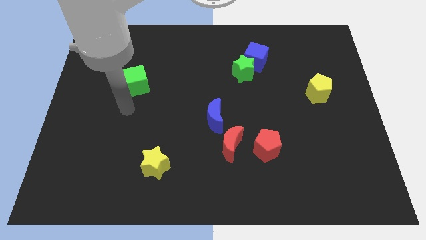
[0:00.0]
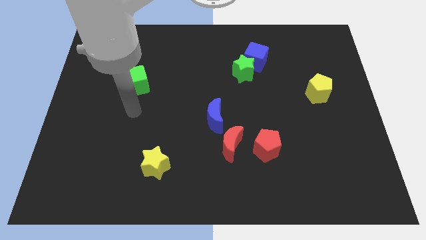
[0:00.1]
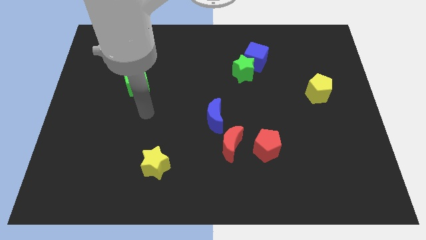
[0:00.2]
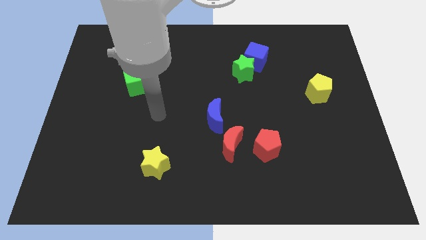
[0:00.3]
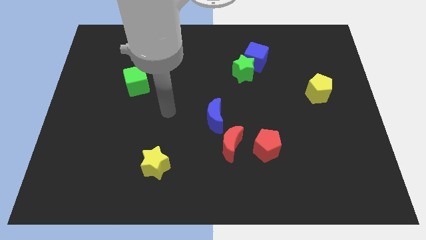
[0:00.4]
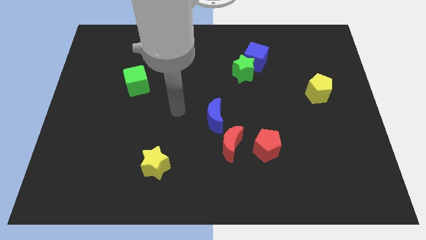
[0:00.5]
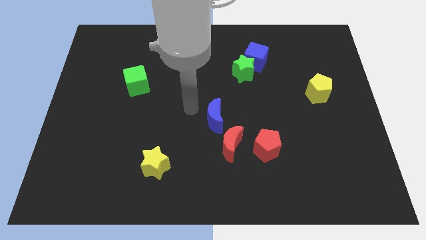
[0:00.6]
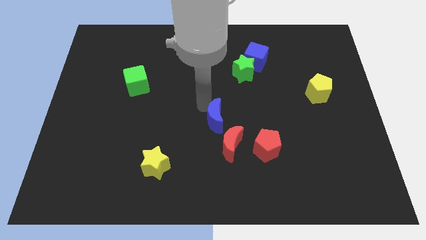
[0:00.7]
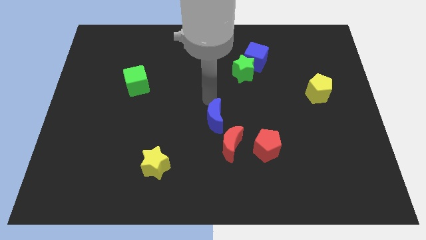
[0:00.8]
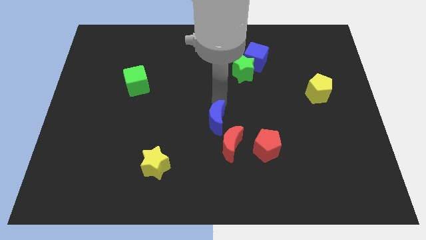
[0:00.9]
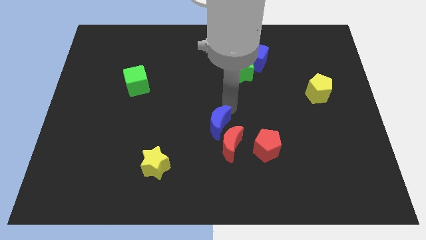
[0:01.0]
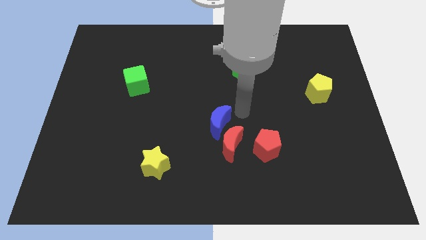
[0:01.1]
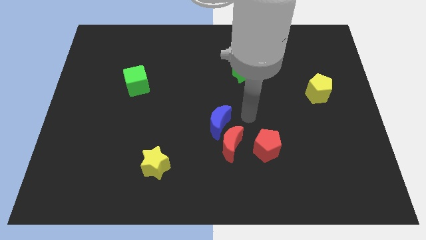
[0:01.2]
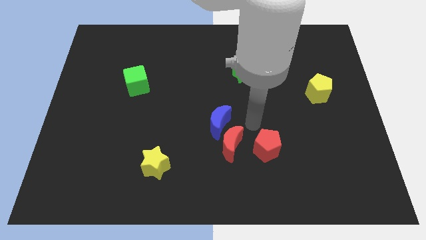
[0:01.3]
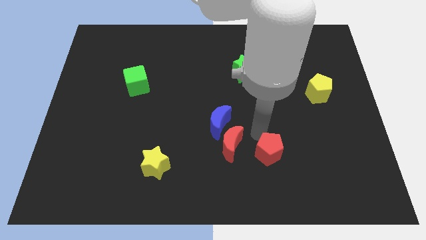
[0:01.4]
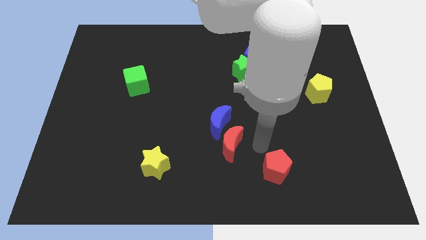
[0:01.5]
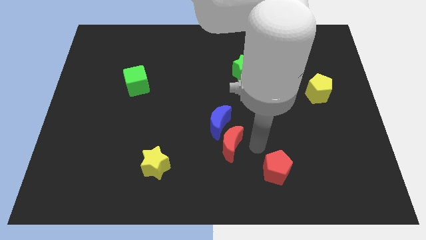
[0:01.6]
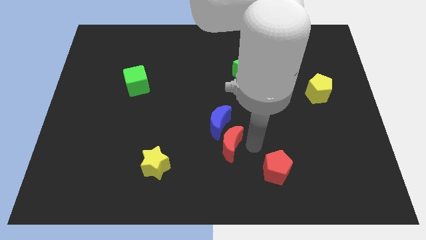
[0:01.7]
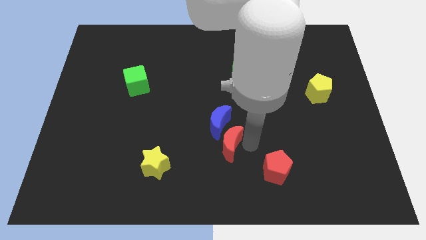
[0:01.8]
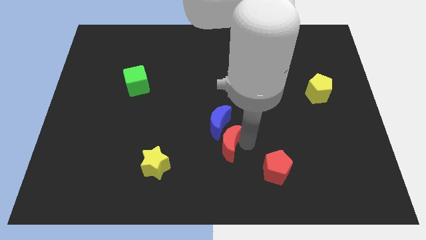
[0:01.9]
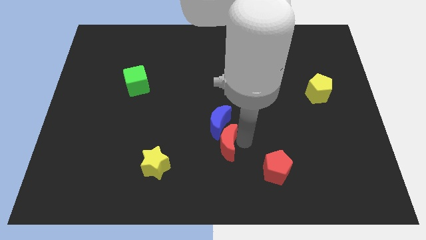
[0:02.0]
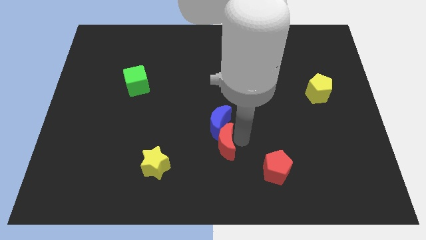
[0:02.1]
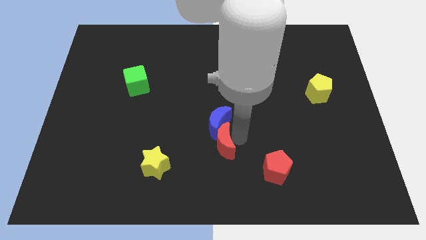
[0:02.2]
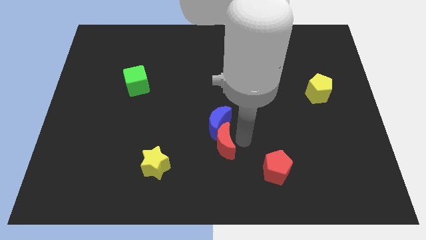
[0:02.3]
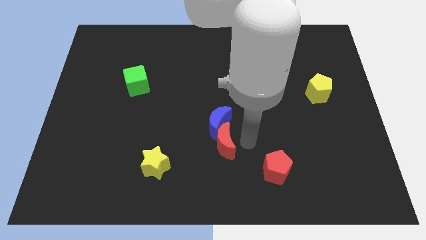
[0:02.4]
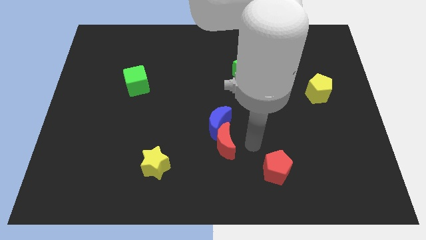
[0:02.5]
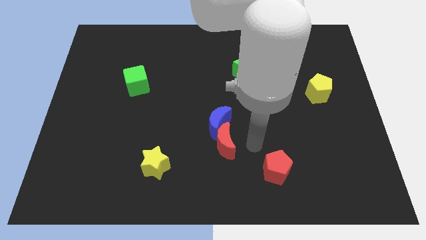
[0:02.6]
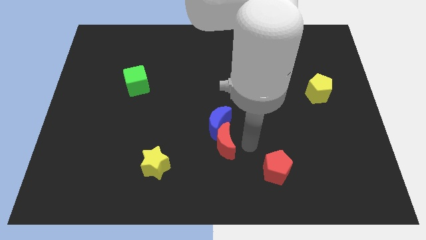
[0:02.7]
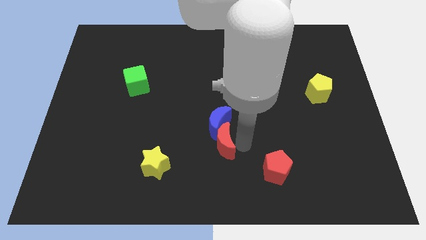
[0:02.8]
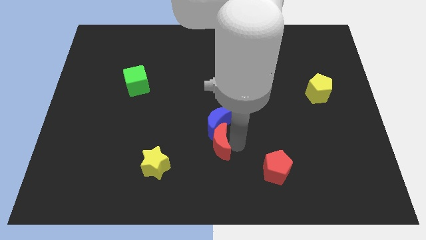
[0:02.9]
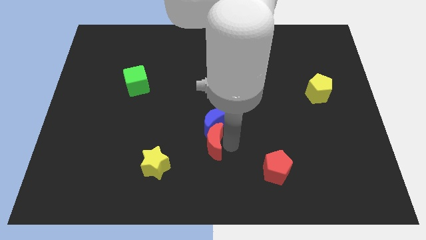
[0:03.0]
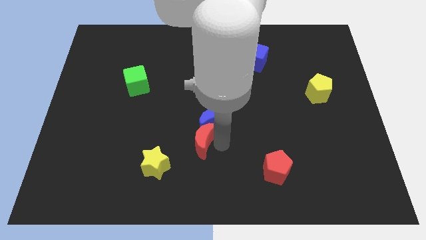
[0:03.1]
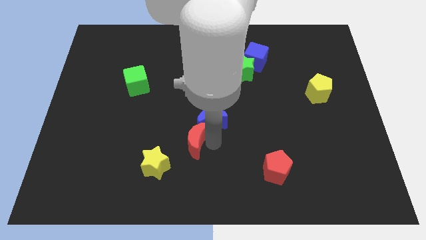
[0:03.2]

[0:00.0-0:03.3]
push the red moon a bit left

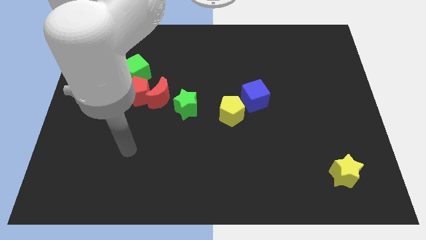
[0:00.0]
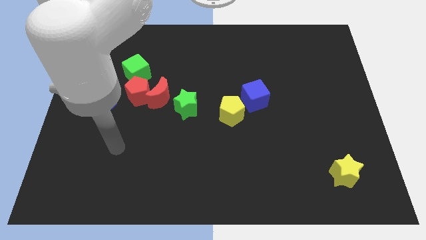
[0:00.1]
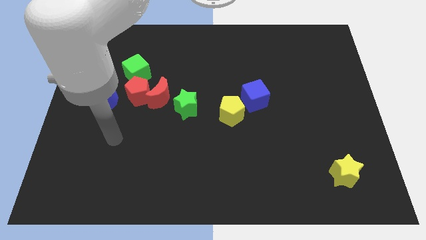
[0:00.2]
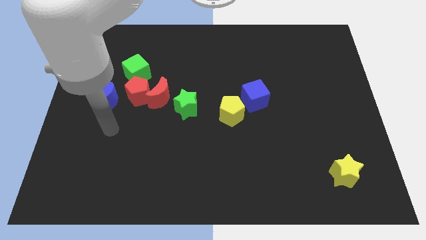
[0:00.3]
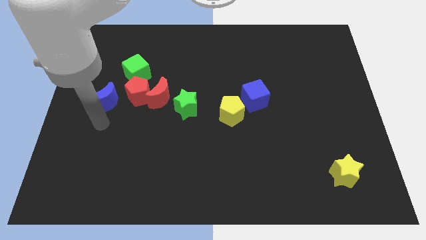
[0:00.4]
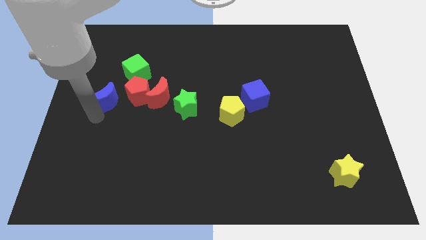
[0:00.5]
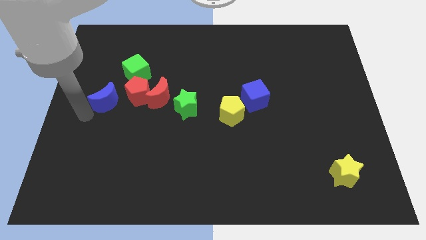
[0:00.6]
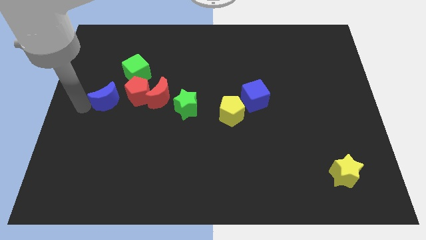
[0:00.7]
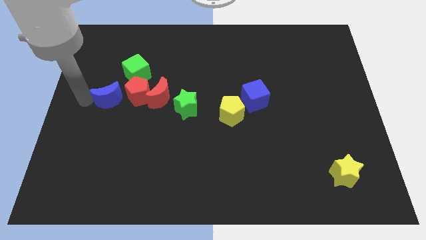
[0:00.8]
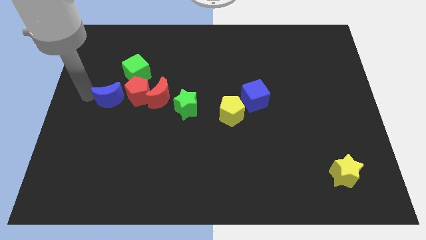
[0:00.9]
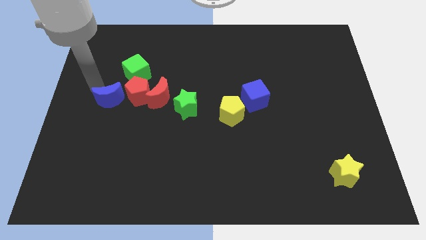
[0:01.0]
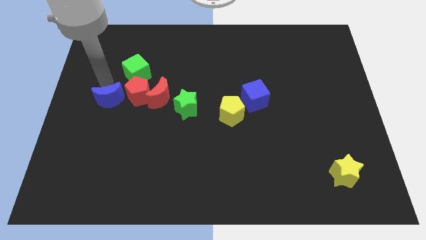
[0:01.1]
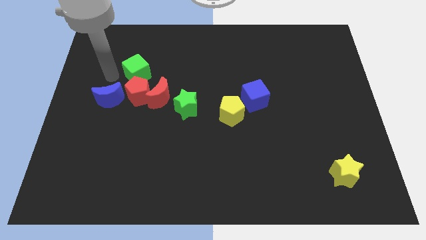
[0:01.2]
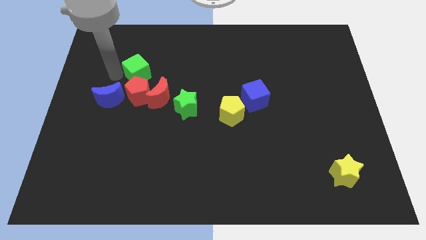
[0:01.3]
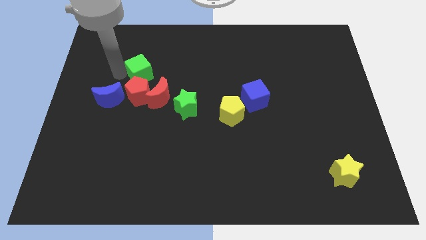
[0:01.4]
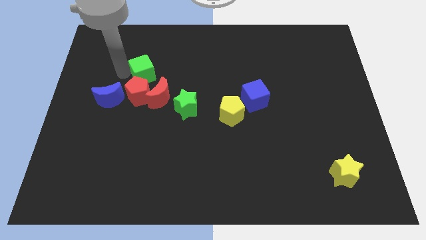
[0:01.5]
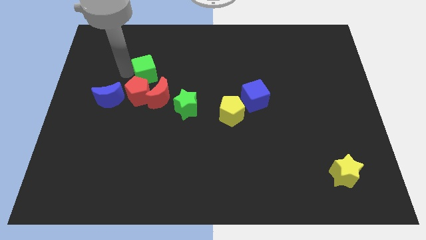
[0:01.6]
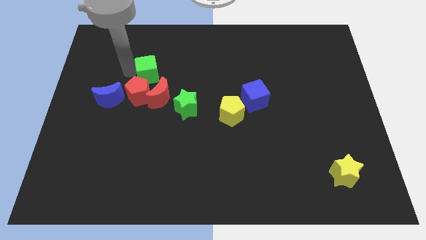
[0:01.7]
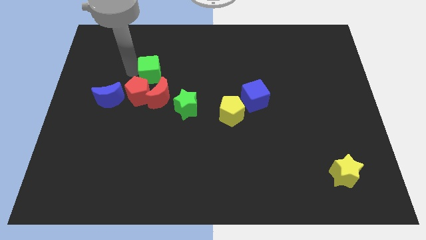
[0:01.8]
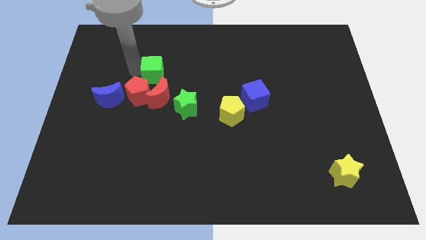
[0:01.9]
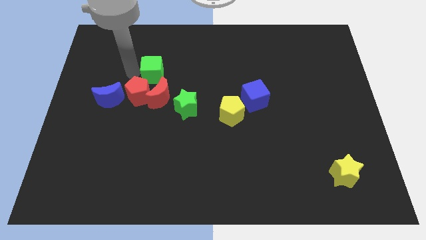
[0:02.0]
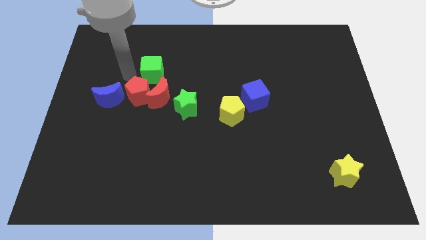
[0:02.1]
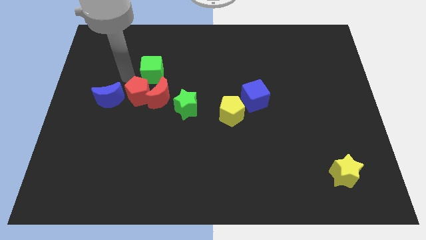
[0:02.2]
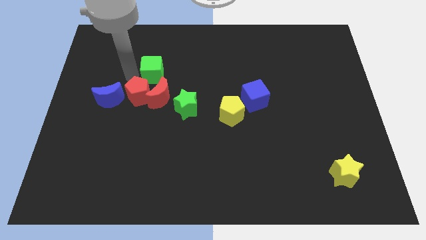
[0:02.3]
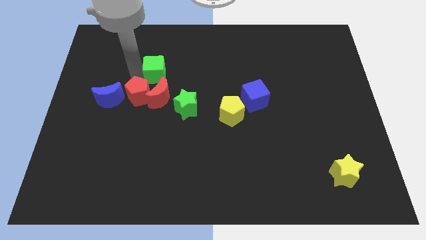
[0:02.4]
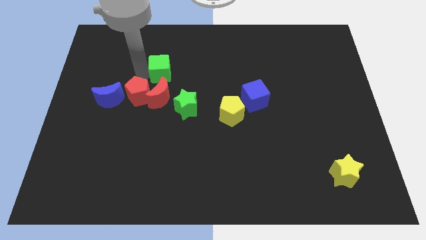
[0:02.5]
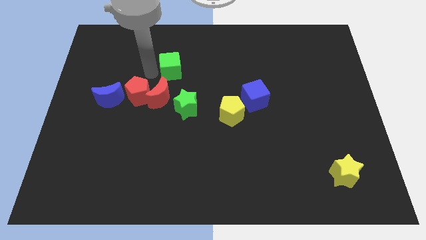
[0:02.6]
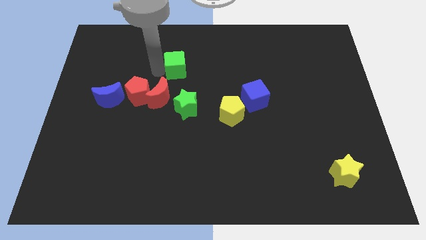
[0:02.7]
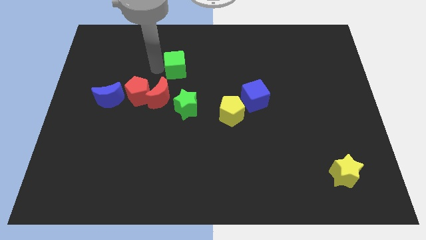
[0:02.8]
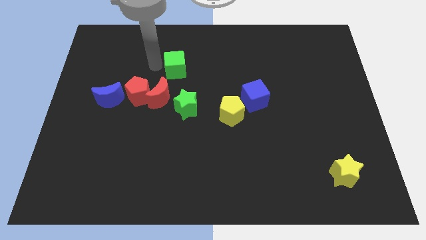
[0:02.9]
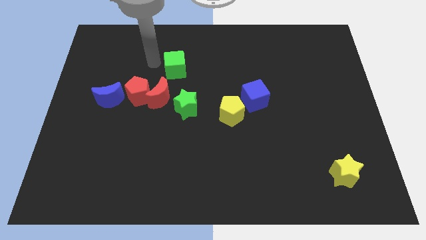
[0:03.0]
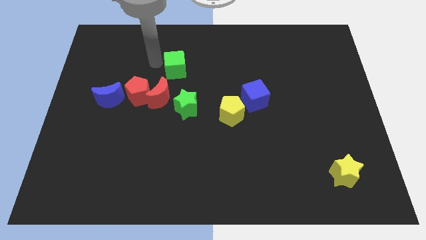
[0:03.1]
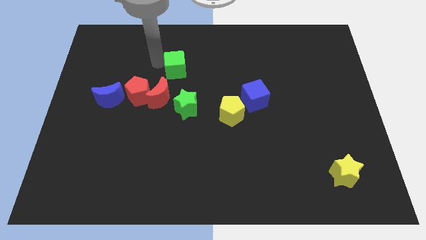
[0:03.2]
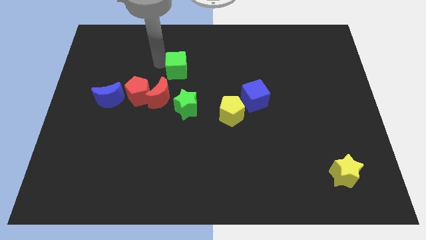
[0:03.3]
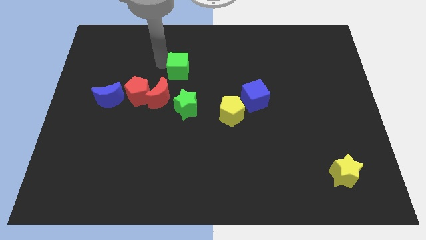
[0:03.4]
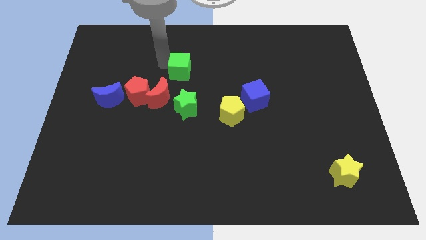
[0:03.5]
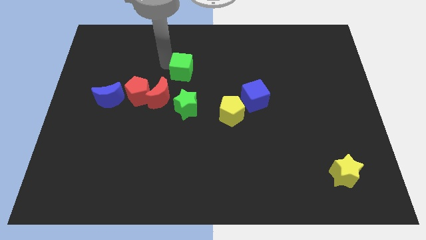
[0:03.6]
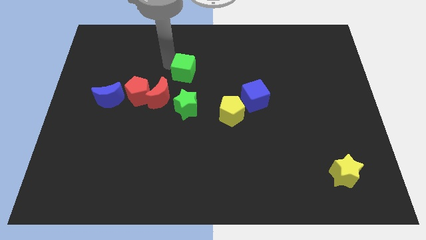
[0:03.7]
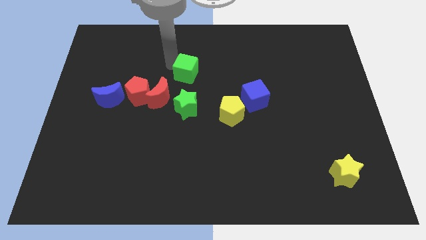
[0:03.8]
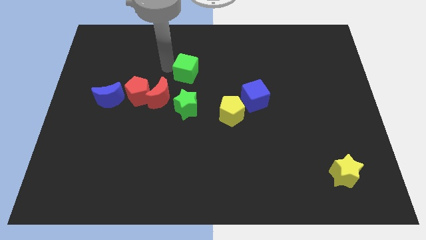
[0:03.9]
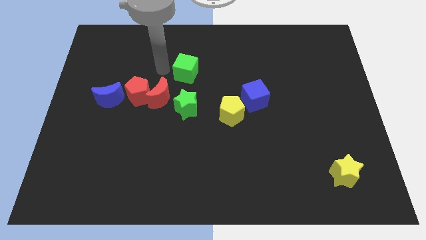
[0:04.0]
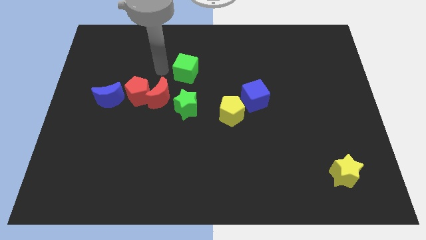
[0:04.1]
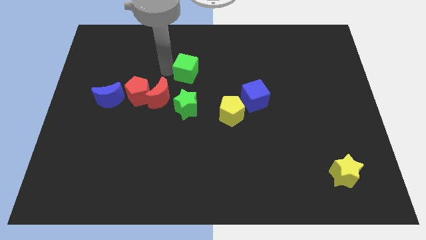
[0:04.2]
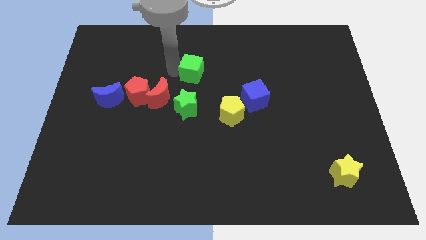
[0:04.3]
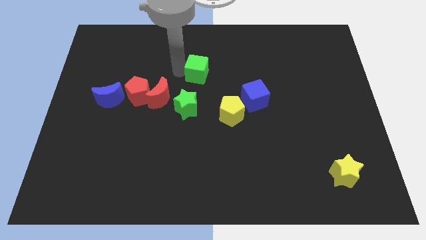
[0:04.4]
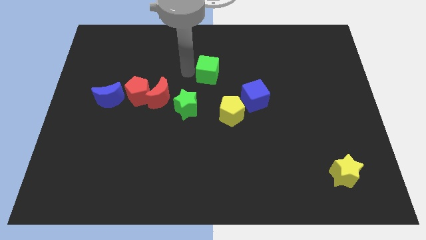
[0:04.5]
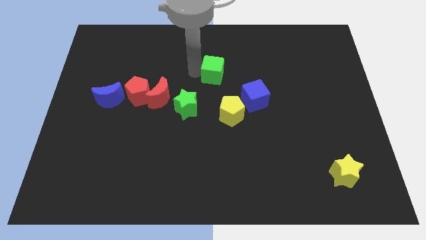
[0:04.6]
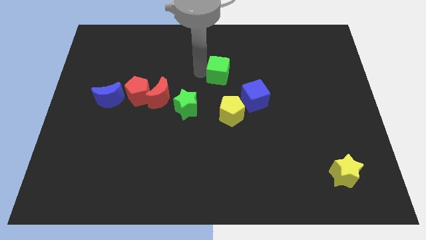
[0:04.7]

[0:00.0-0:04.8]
move the green cube to the right
